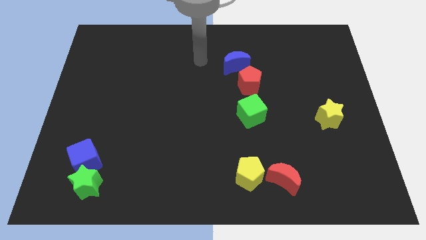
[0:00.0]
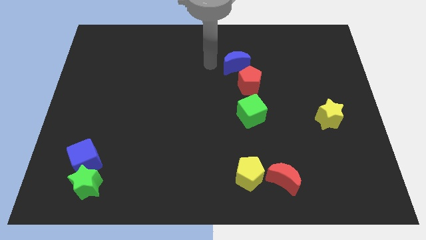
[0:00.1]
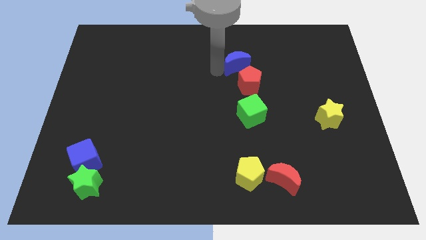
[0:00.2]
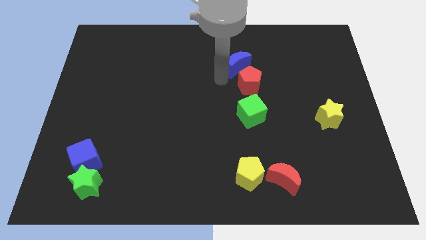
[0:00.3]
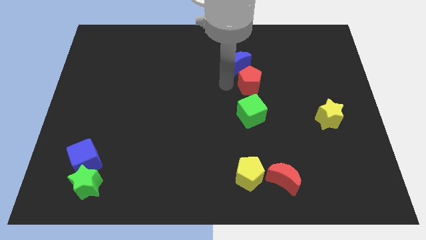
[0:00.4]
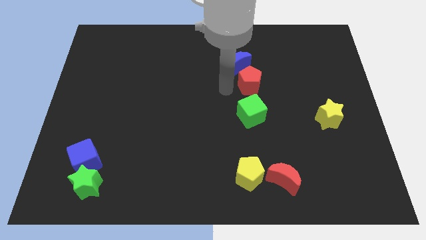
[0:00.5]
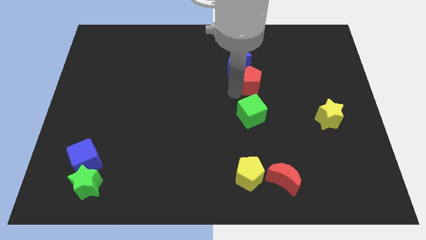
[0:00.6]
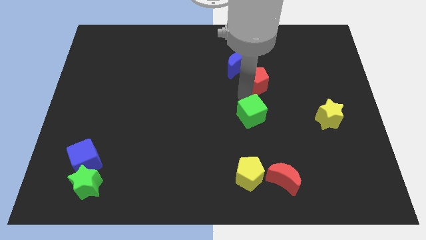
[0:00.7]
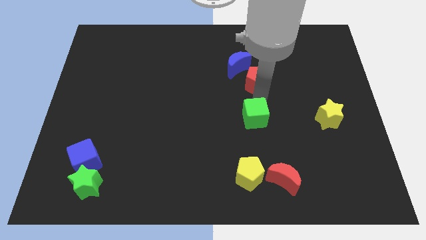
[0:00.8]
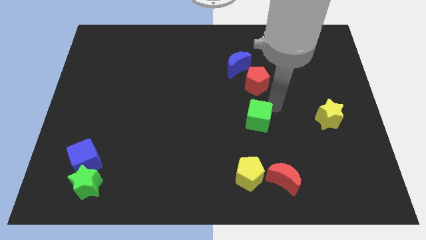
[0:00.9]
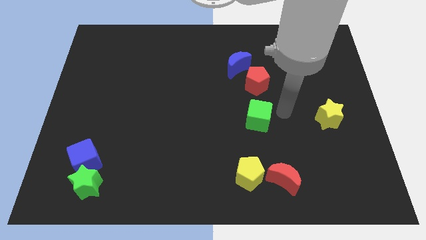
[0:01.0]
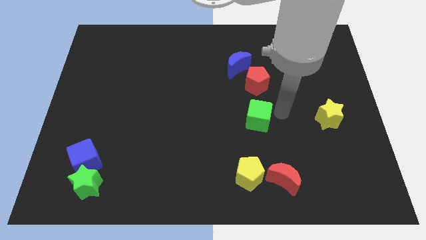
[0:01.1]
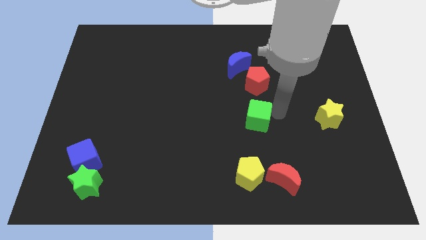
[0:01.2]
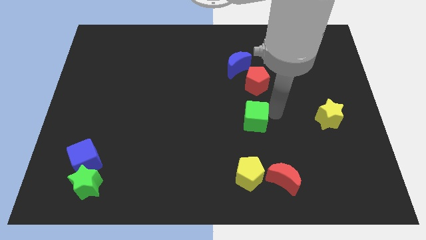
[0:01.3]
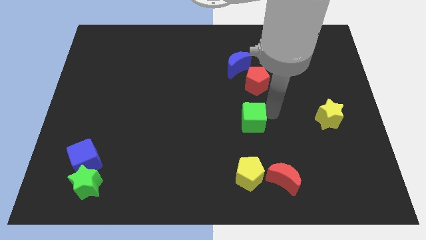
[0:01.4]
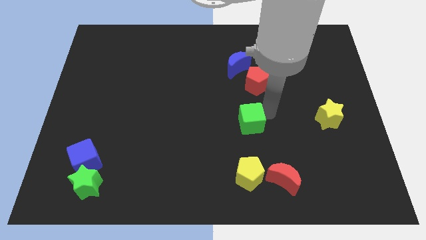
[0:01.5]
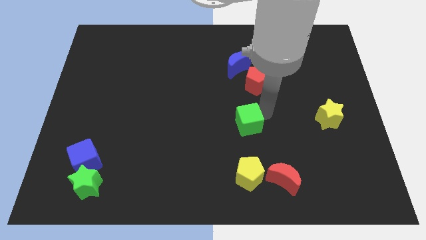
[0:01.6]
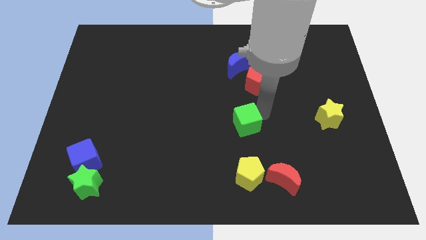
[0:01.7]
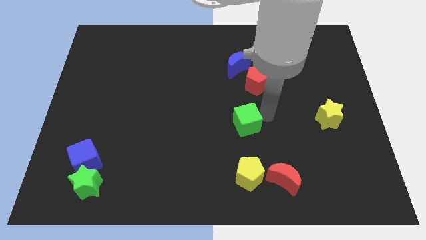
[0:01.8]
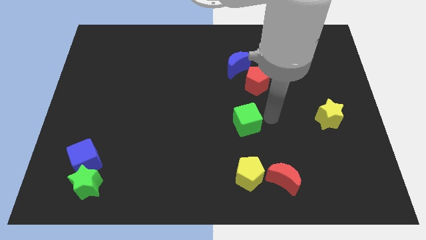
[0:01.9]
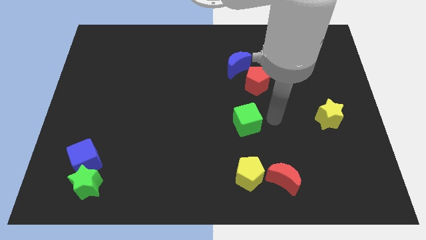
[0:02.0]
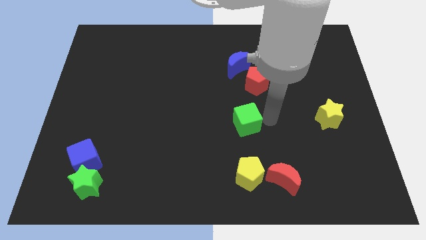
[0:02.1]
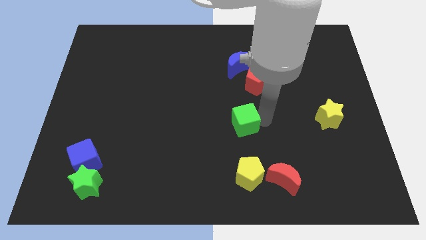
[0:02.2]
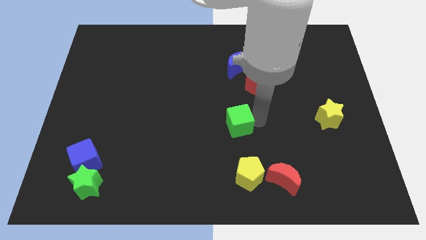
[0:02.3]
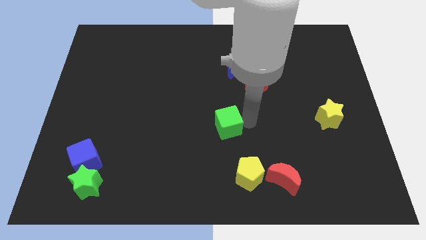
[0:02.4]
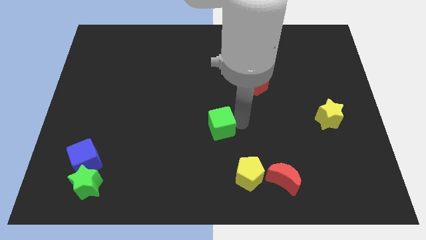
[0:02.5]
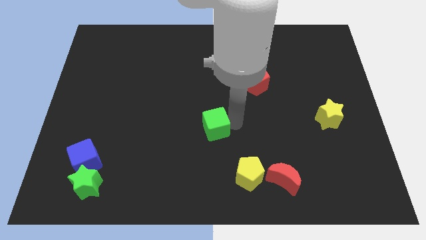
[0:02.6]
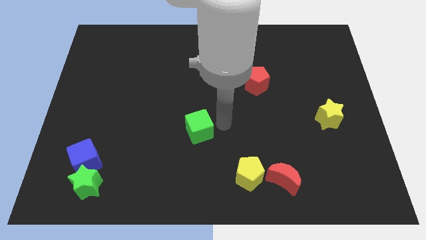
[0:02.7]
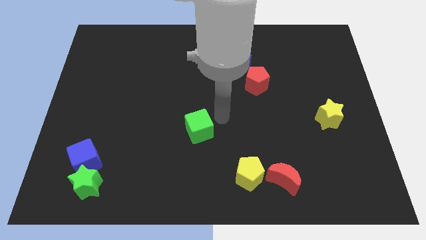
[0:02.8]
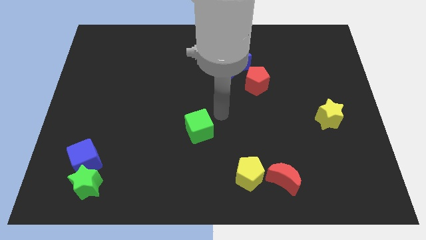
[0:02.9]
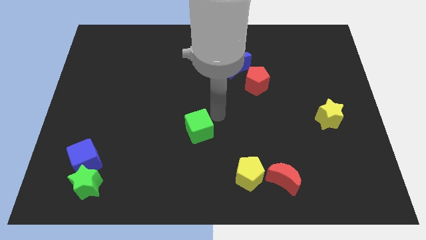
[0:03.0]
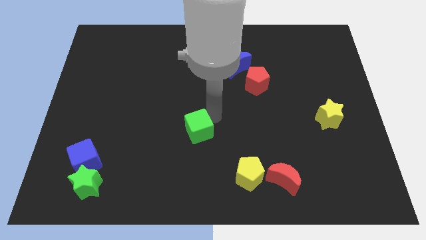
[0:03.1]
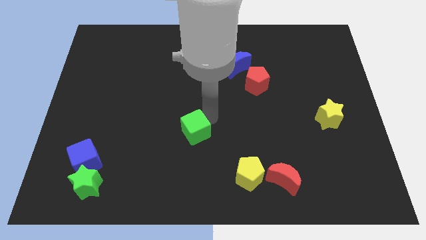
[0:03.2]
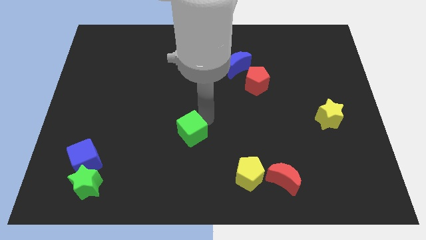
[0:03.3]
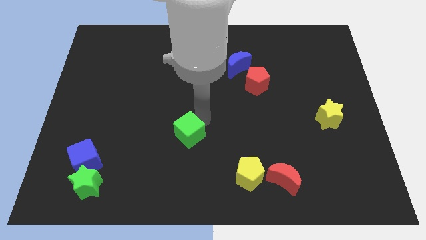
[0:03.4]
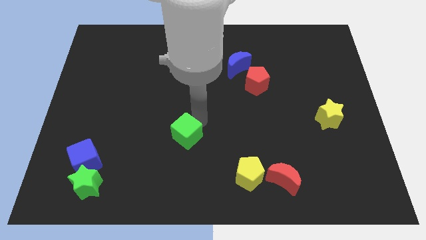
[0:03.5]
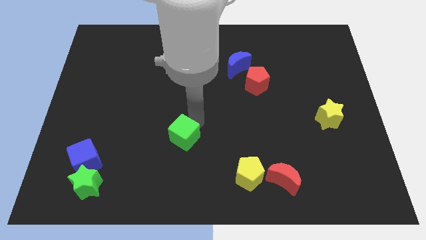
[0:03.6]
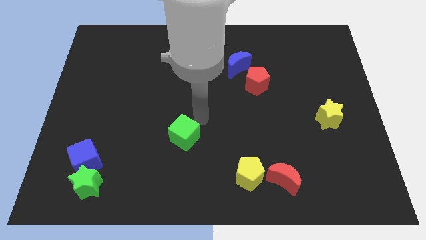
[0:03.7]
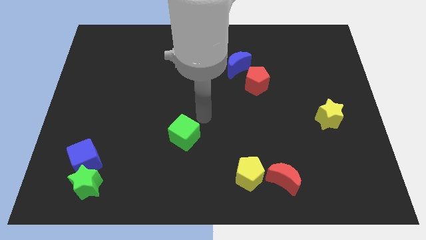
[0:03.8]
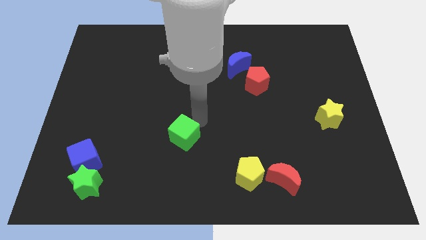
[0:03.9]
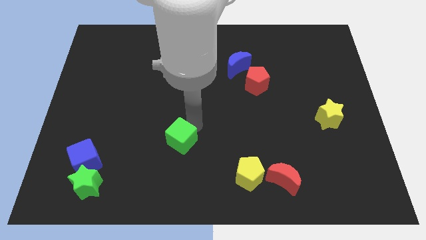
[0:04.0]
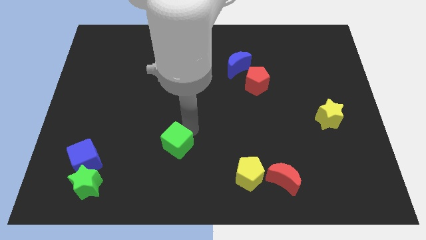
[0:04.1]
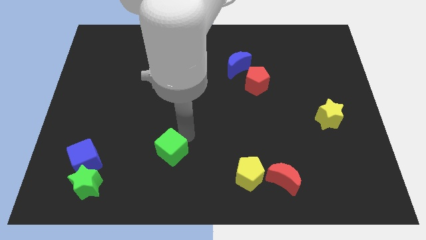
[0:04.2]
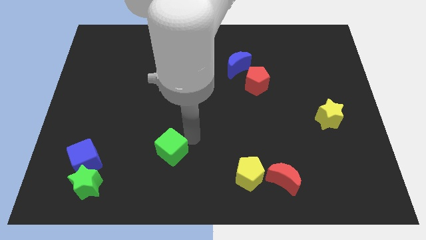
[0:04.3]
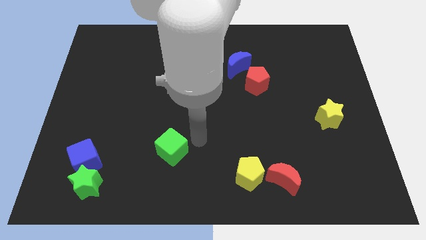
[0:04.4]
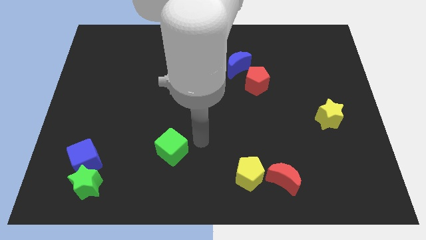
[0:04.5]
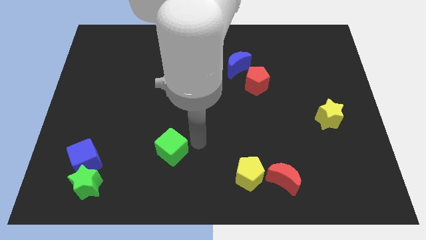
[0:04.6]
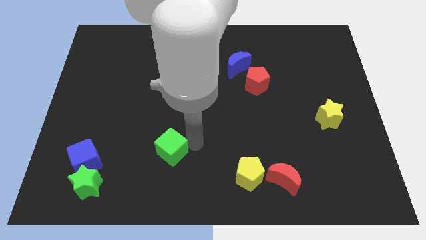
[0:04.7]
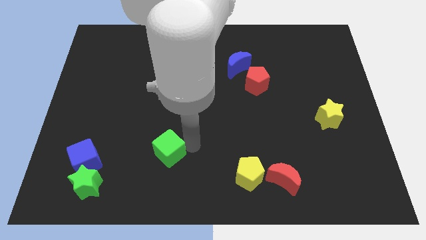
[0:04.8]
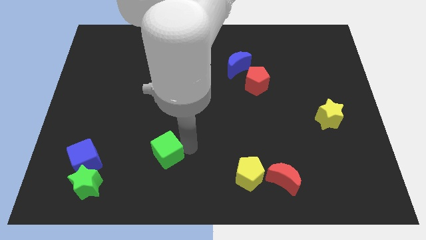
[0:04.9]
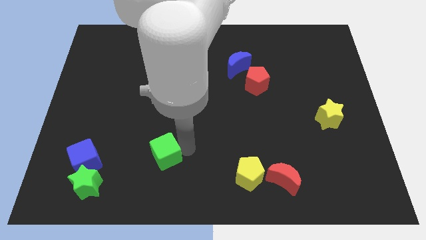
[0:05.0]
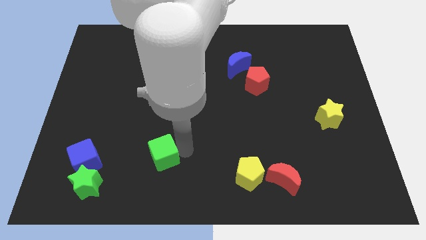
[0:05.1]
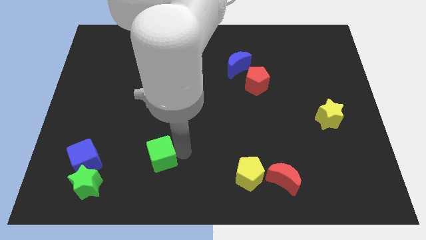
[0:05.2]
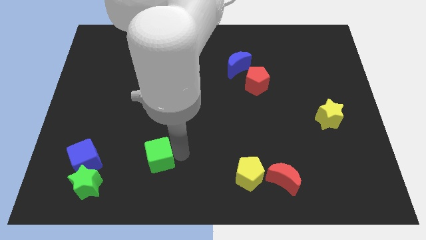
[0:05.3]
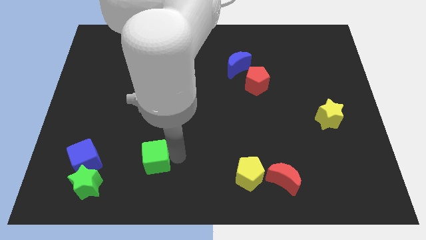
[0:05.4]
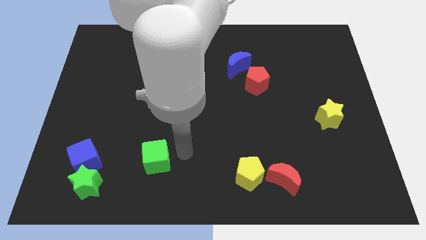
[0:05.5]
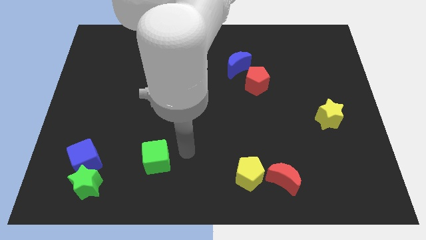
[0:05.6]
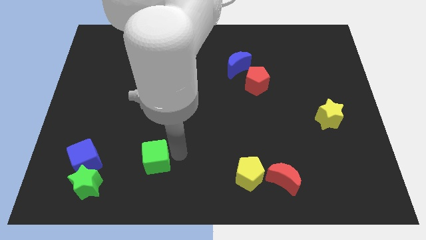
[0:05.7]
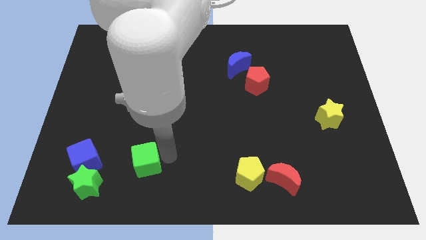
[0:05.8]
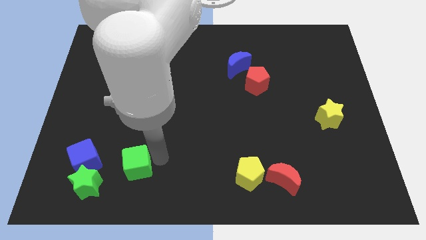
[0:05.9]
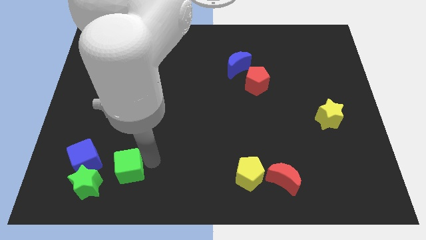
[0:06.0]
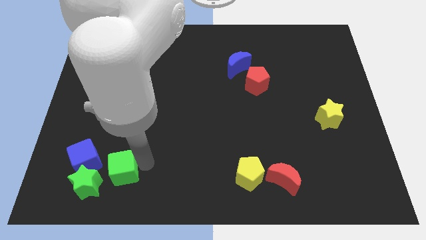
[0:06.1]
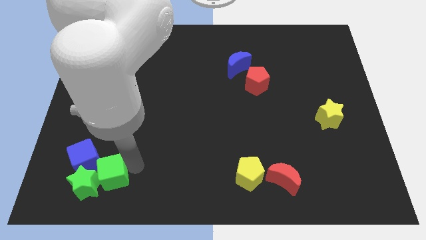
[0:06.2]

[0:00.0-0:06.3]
put the green cube close to the green star

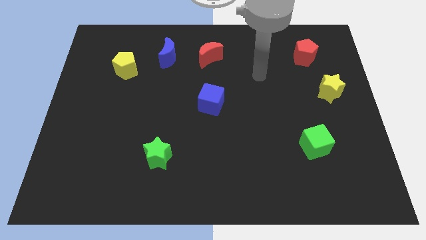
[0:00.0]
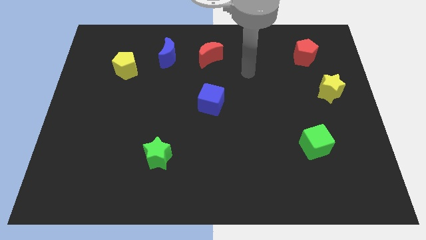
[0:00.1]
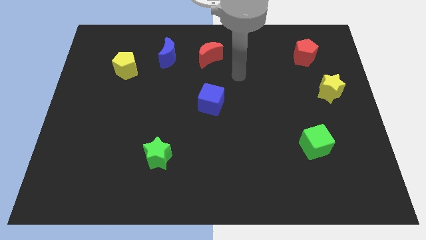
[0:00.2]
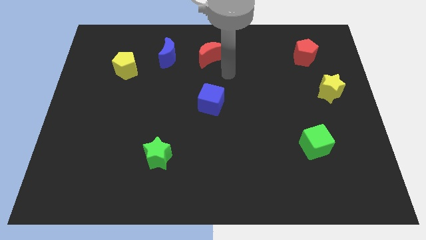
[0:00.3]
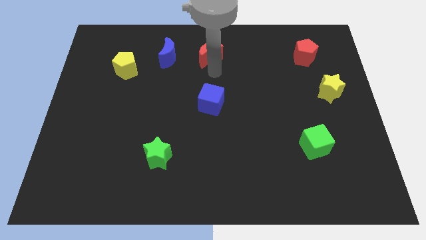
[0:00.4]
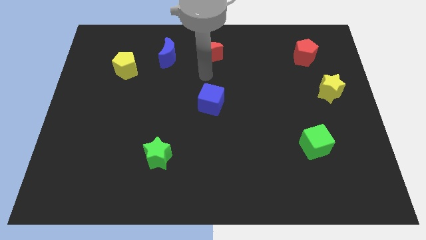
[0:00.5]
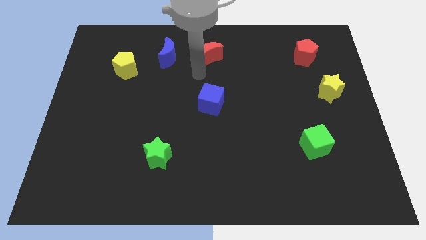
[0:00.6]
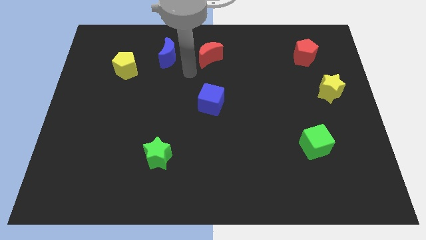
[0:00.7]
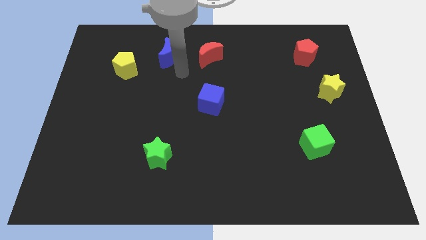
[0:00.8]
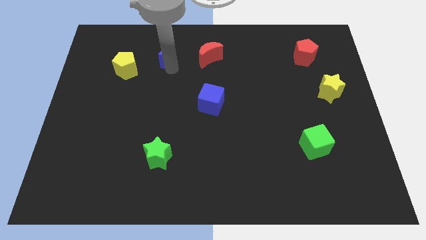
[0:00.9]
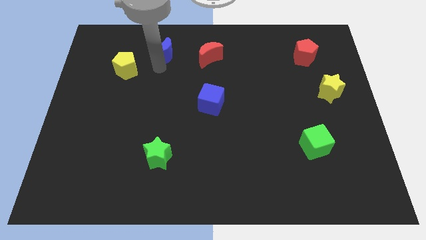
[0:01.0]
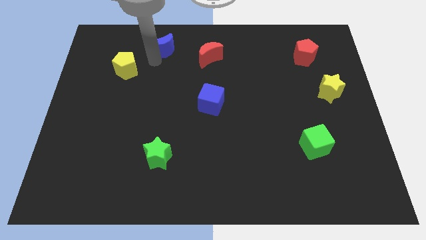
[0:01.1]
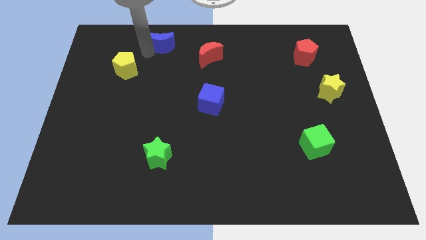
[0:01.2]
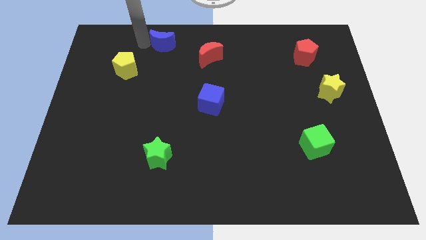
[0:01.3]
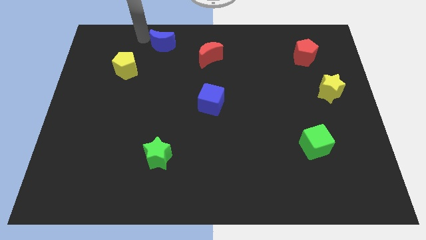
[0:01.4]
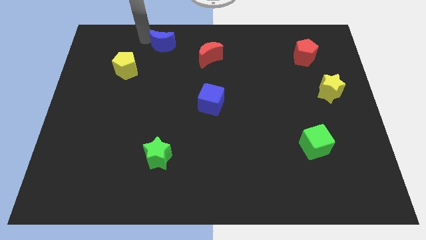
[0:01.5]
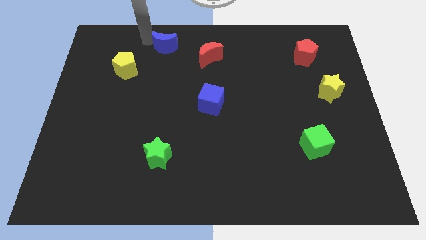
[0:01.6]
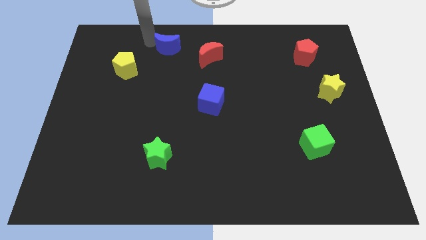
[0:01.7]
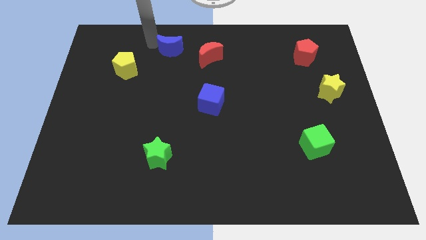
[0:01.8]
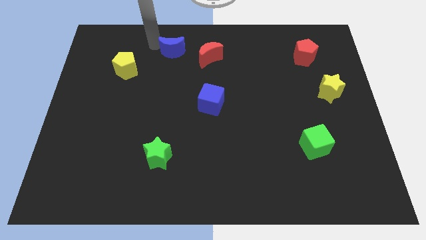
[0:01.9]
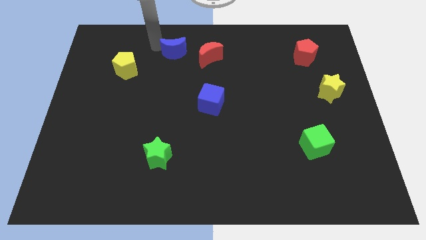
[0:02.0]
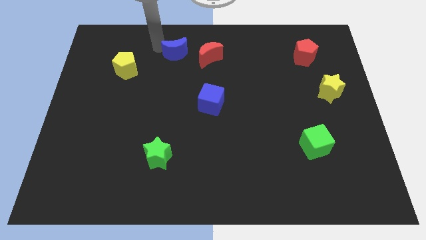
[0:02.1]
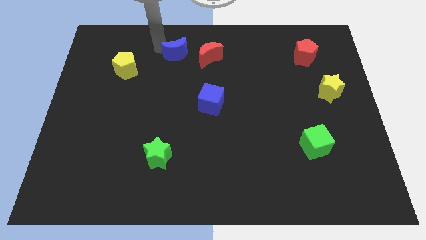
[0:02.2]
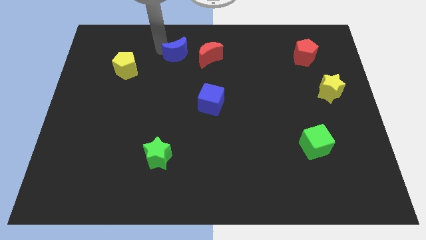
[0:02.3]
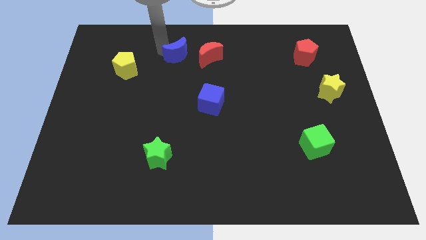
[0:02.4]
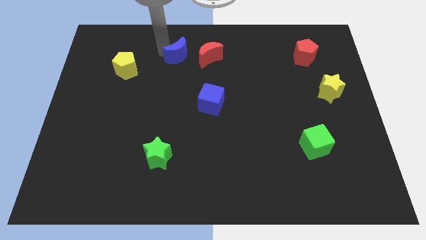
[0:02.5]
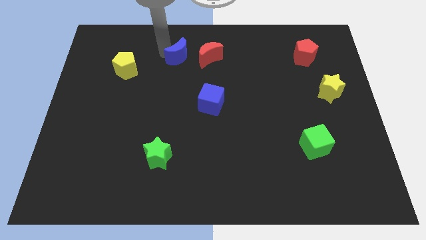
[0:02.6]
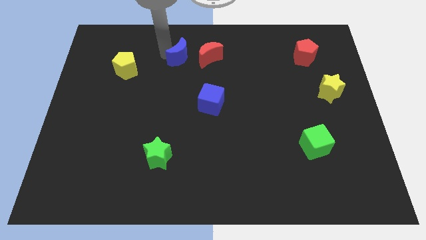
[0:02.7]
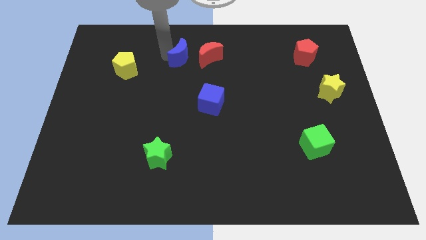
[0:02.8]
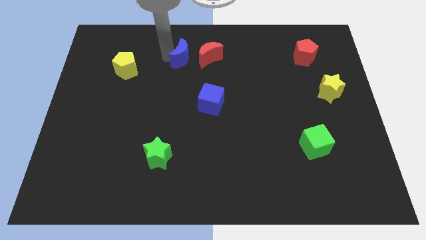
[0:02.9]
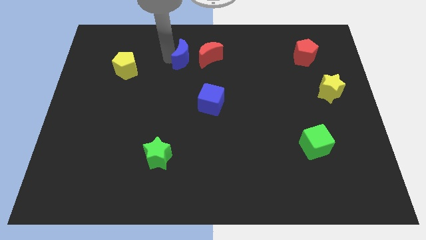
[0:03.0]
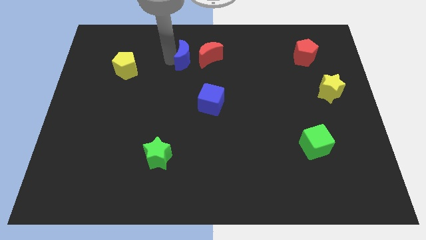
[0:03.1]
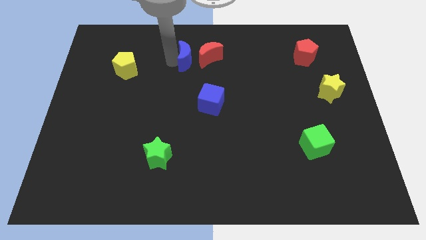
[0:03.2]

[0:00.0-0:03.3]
put the blue moon close to the red moon
